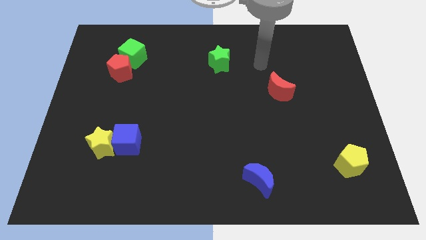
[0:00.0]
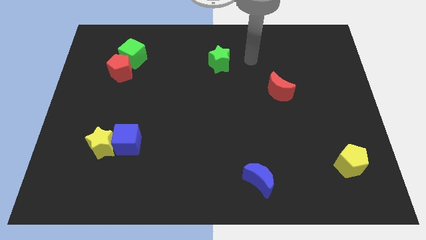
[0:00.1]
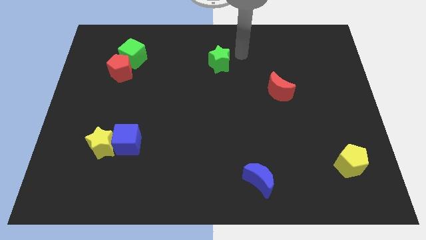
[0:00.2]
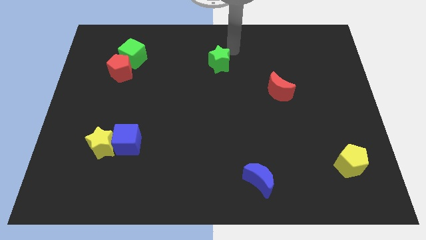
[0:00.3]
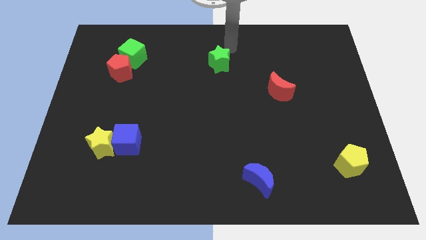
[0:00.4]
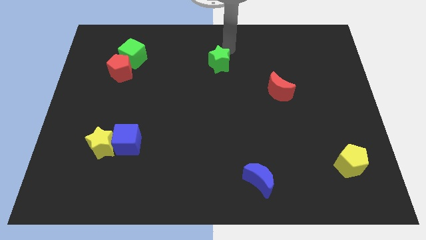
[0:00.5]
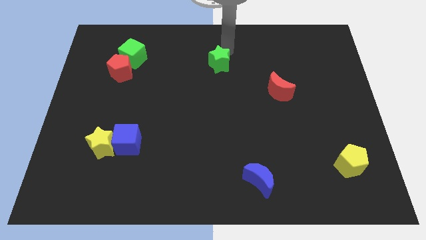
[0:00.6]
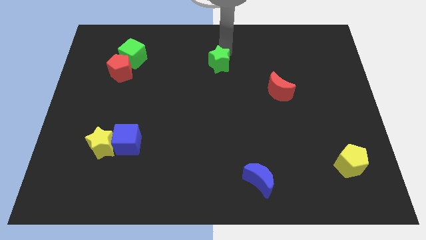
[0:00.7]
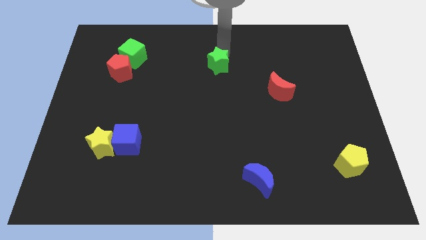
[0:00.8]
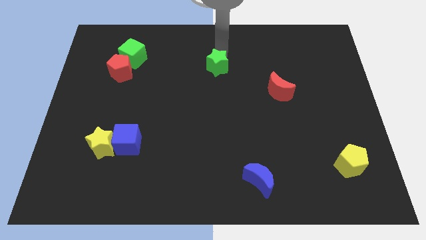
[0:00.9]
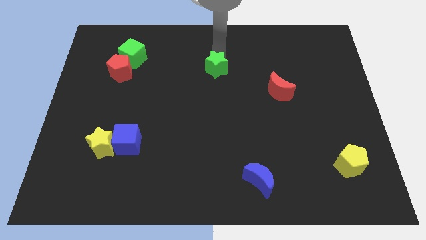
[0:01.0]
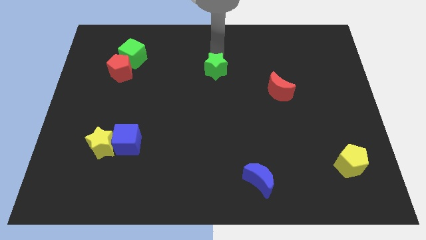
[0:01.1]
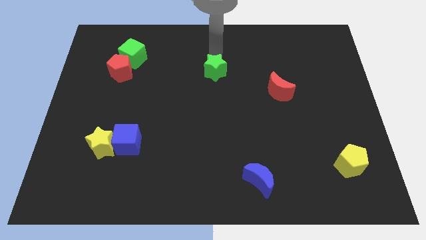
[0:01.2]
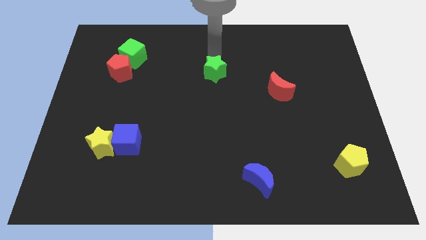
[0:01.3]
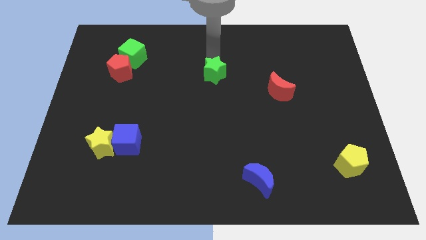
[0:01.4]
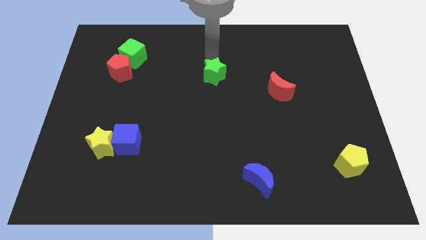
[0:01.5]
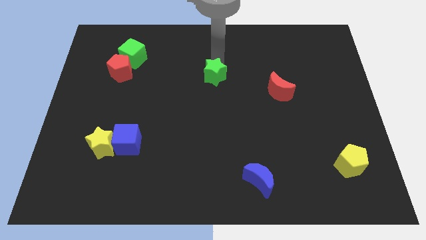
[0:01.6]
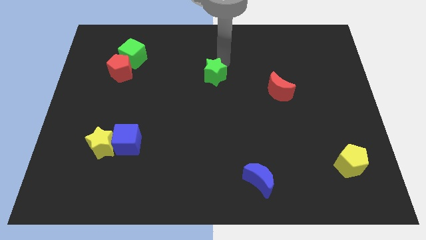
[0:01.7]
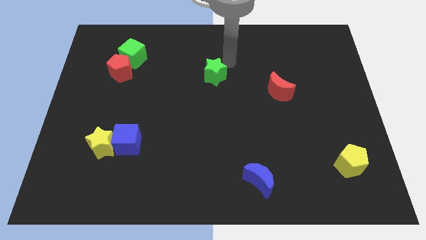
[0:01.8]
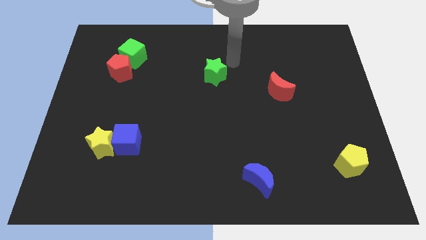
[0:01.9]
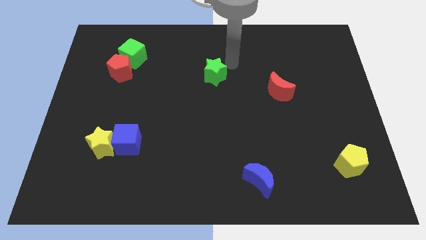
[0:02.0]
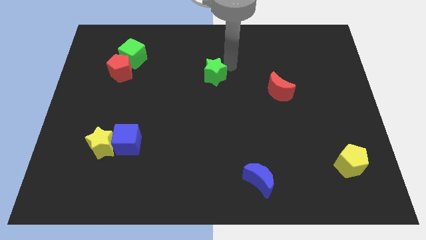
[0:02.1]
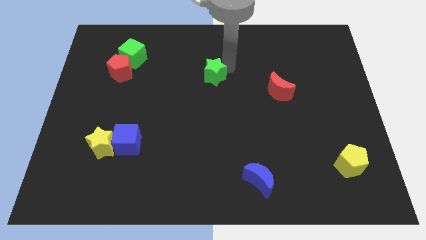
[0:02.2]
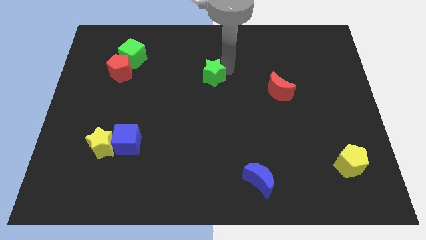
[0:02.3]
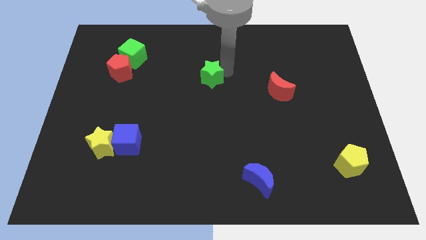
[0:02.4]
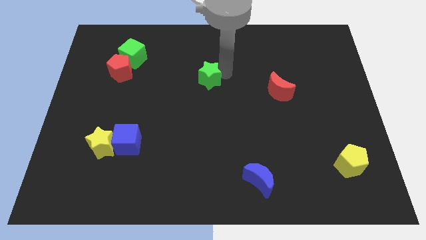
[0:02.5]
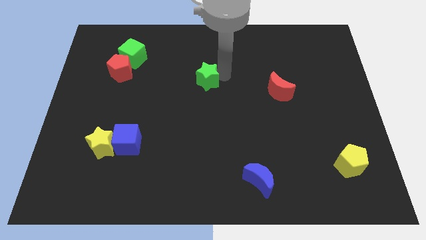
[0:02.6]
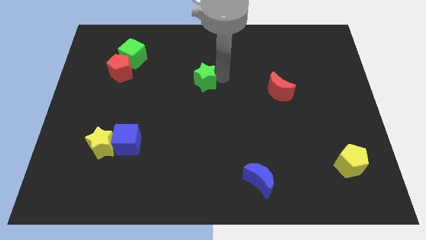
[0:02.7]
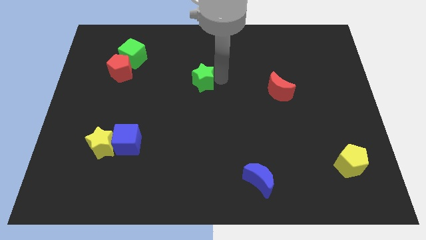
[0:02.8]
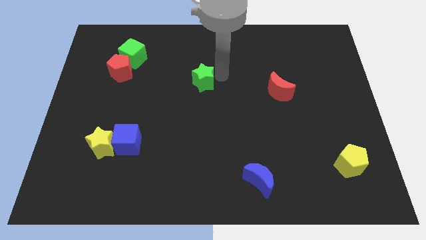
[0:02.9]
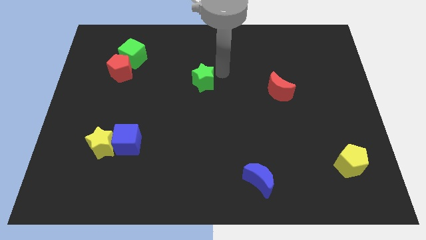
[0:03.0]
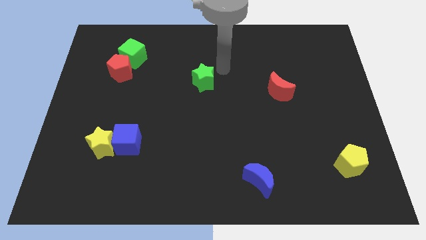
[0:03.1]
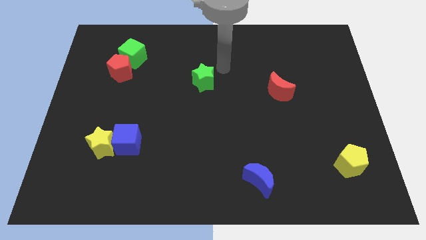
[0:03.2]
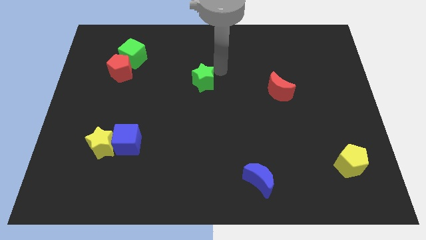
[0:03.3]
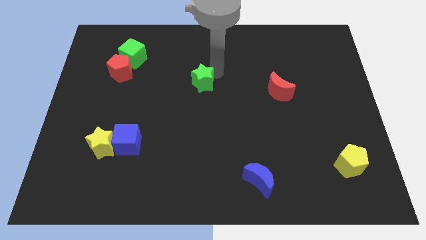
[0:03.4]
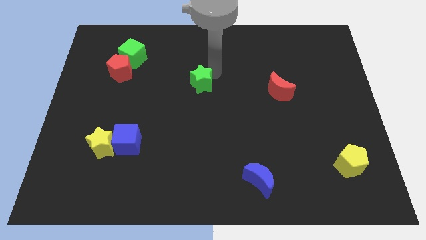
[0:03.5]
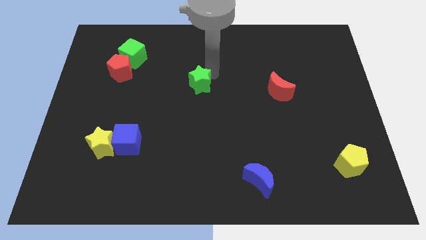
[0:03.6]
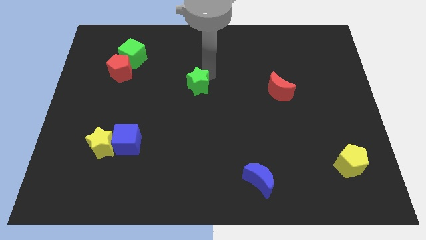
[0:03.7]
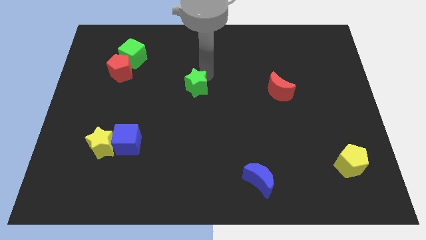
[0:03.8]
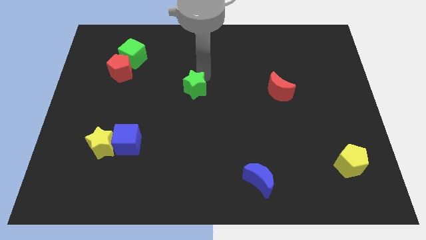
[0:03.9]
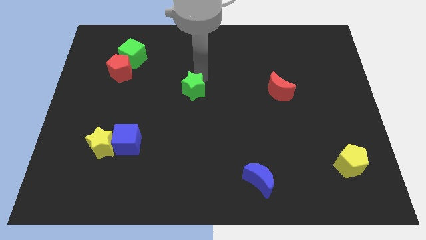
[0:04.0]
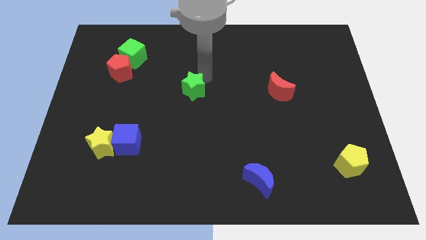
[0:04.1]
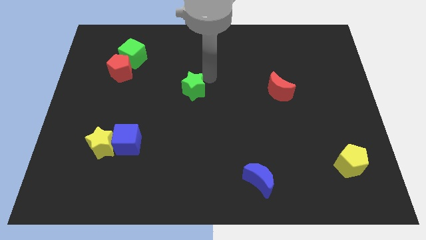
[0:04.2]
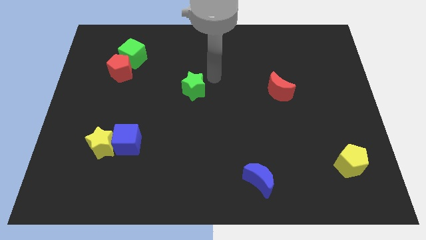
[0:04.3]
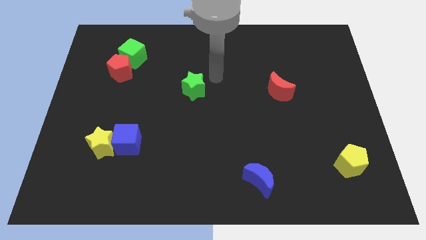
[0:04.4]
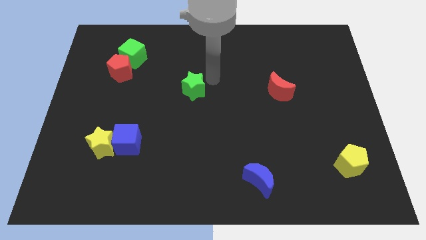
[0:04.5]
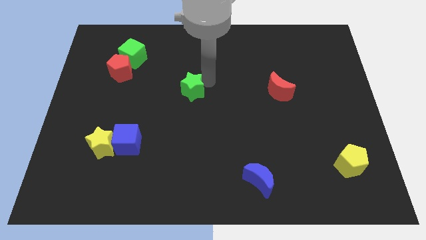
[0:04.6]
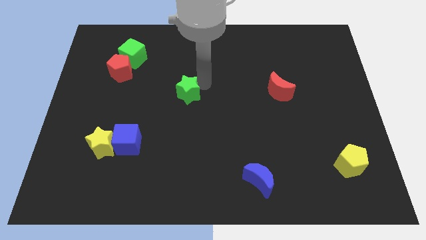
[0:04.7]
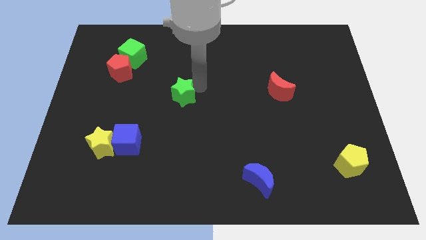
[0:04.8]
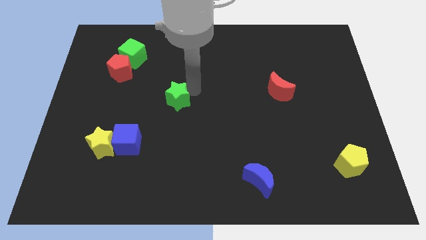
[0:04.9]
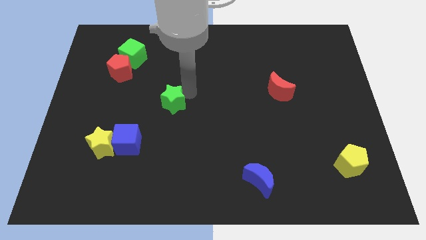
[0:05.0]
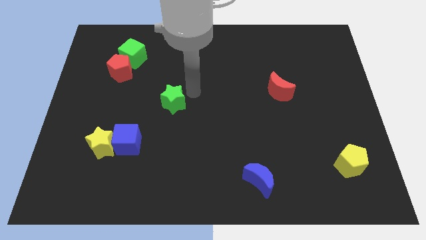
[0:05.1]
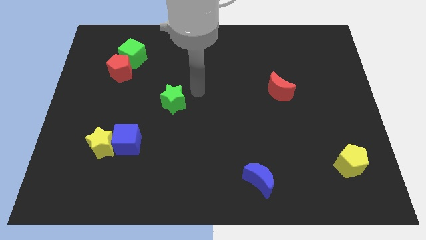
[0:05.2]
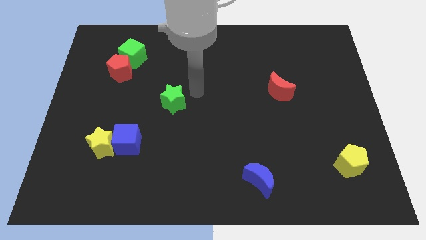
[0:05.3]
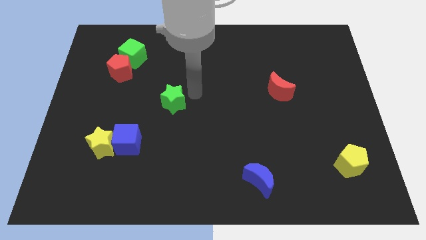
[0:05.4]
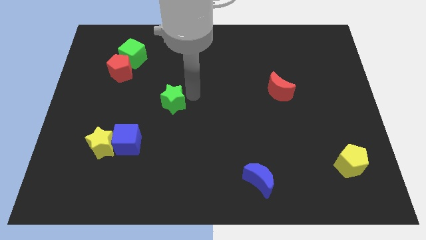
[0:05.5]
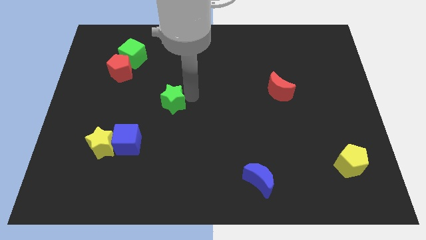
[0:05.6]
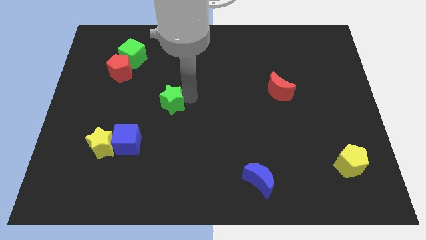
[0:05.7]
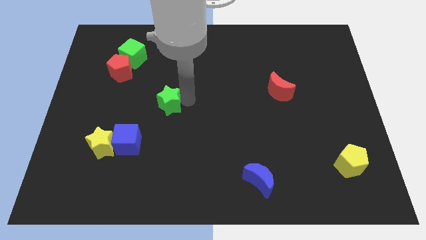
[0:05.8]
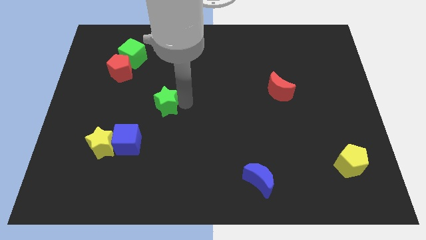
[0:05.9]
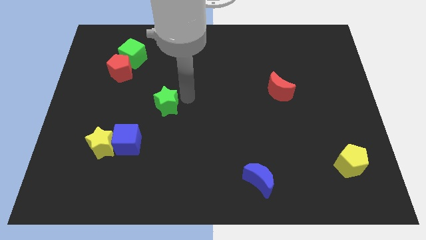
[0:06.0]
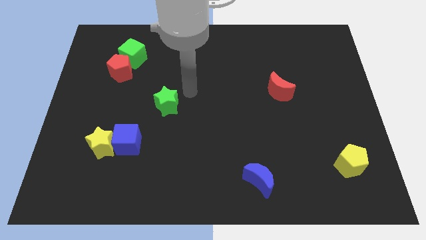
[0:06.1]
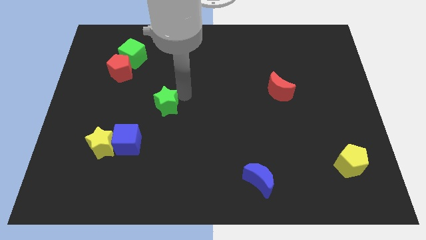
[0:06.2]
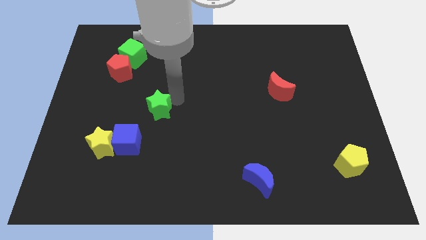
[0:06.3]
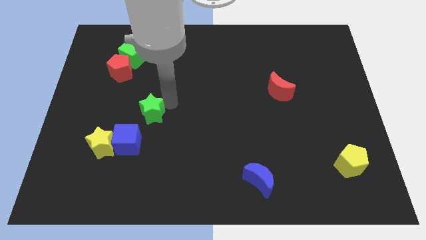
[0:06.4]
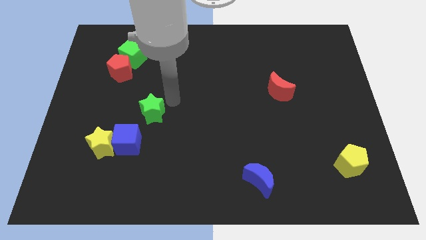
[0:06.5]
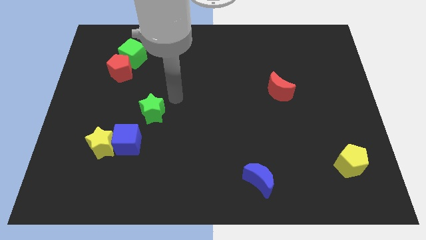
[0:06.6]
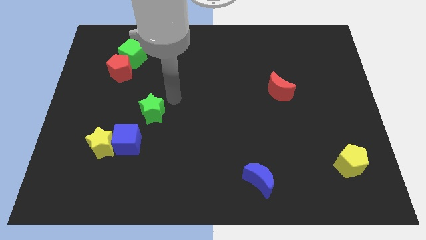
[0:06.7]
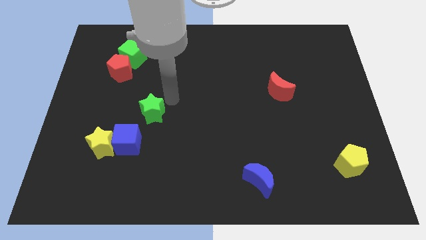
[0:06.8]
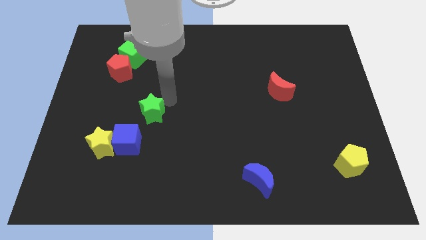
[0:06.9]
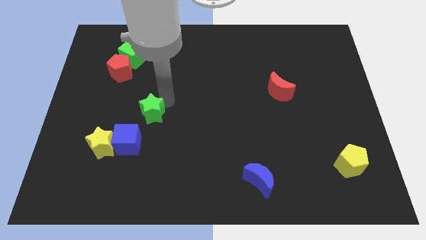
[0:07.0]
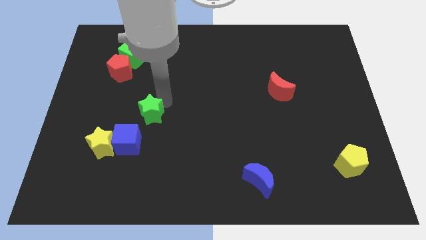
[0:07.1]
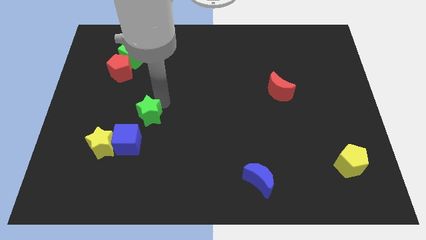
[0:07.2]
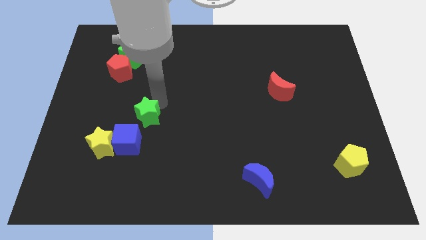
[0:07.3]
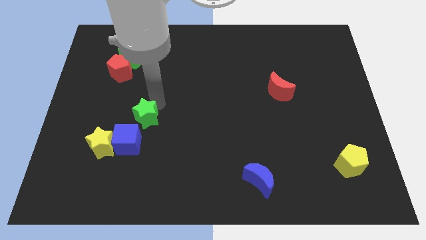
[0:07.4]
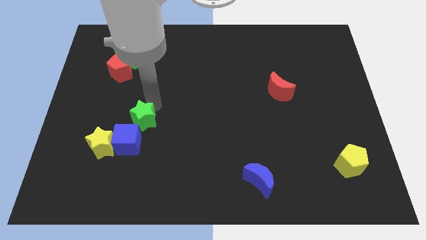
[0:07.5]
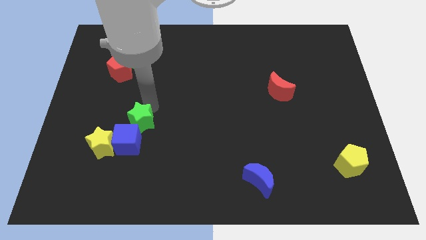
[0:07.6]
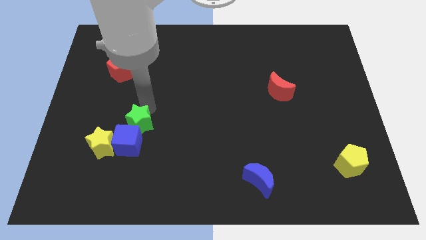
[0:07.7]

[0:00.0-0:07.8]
move the green star next to the blue cube

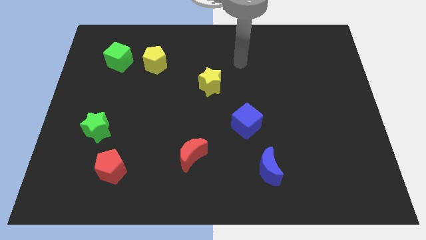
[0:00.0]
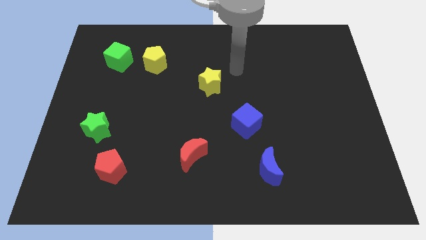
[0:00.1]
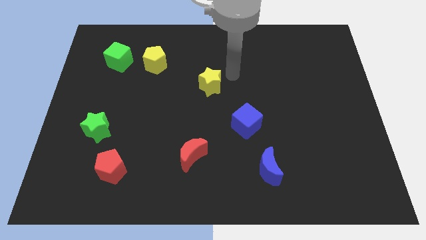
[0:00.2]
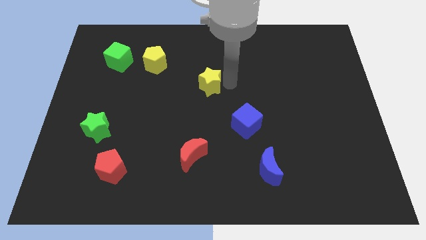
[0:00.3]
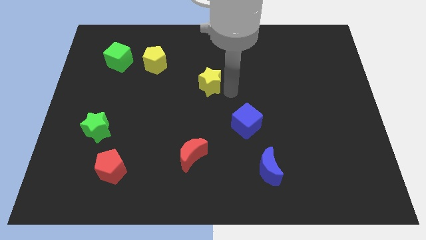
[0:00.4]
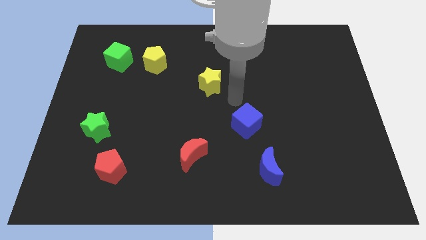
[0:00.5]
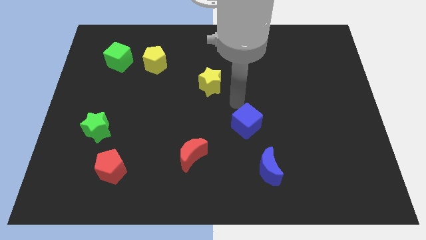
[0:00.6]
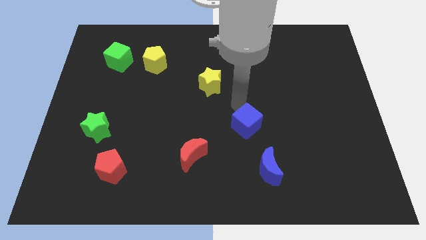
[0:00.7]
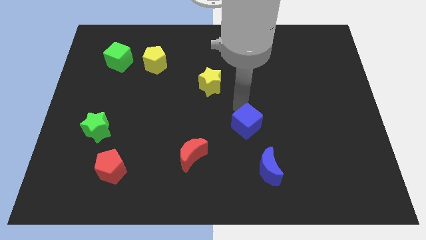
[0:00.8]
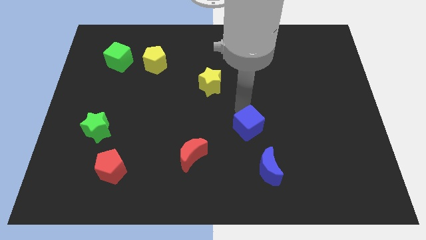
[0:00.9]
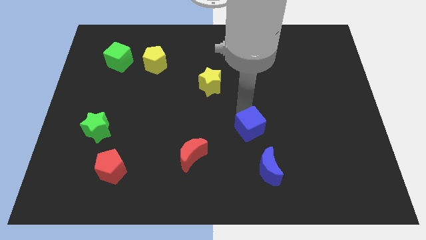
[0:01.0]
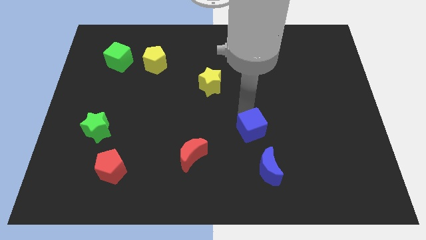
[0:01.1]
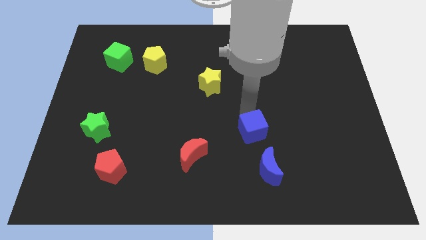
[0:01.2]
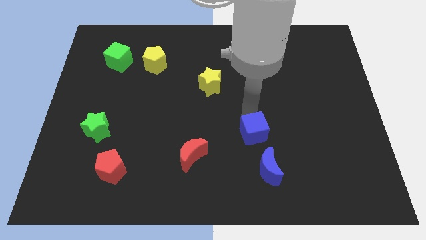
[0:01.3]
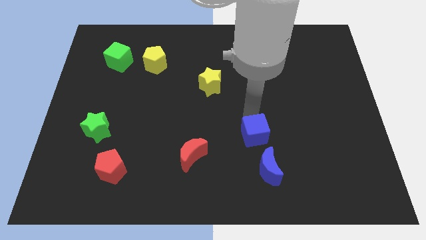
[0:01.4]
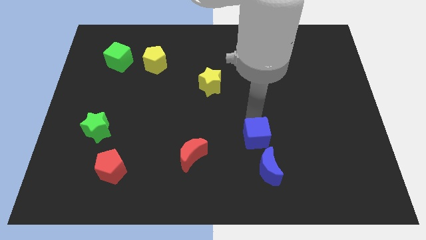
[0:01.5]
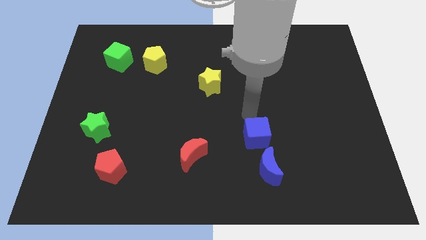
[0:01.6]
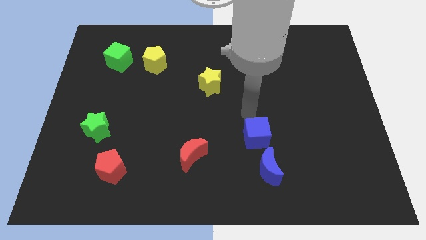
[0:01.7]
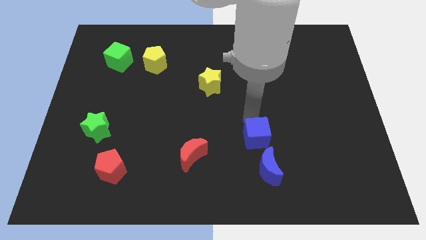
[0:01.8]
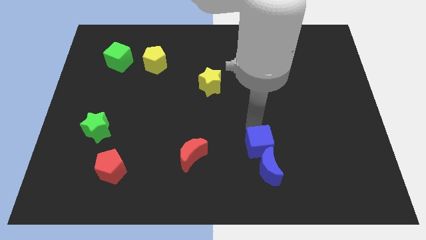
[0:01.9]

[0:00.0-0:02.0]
put the blue cube close to the blue moon
